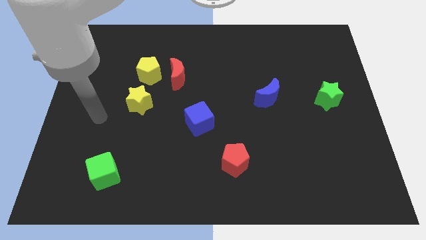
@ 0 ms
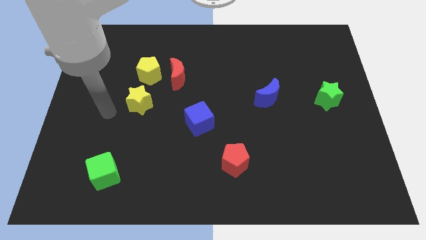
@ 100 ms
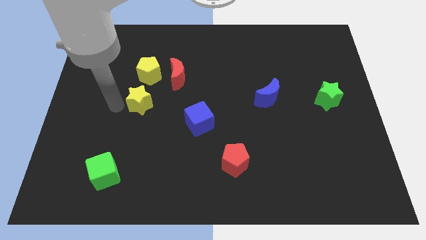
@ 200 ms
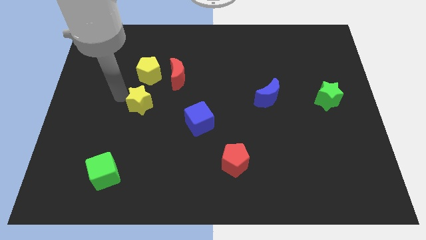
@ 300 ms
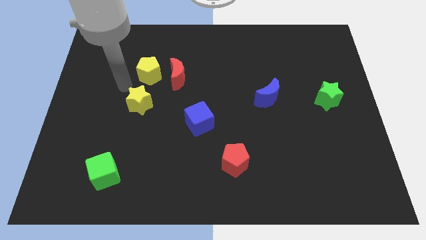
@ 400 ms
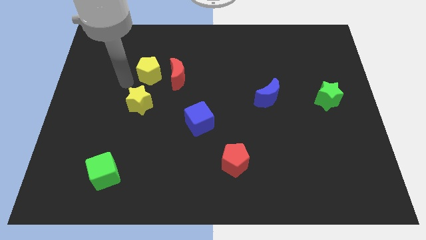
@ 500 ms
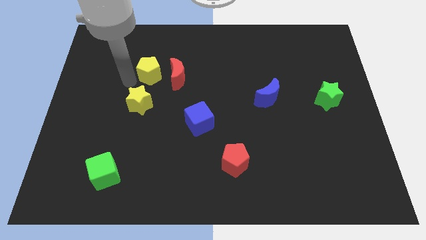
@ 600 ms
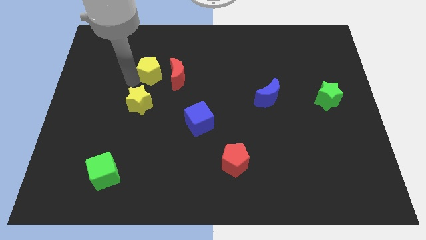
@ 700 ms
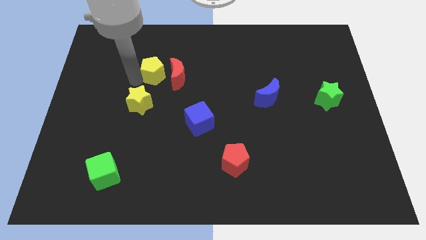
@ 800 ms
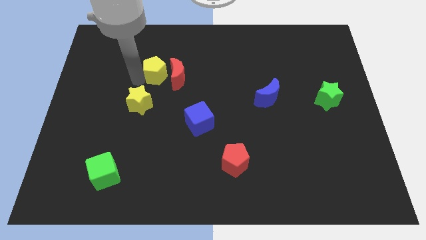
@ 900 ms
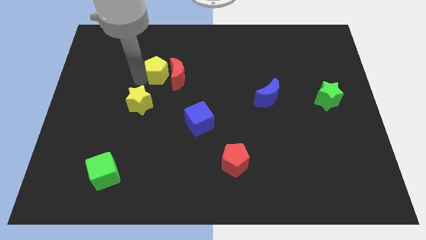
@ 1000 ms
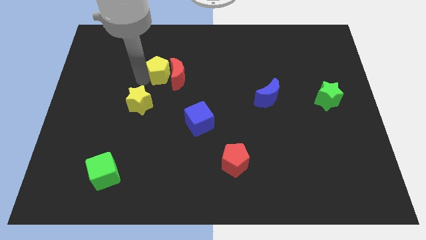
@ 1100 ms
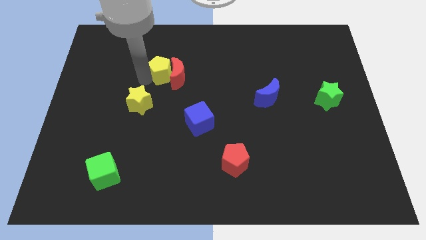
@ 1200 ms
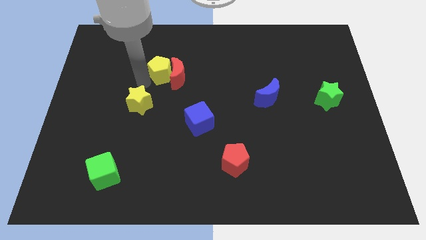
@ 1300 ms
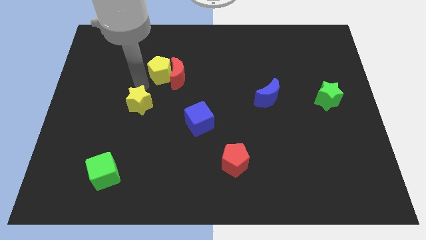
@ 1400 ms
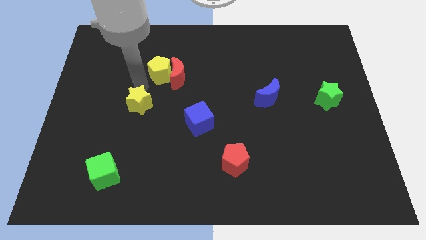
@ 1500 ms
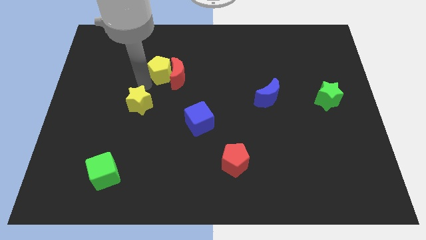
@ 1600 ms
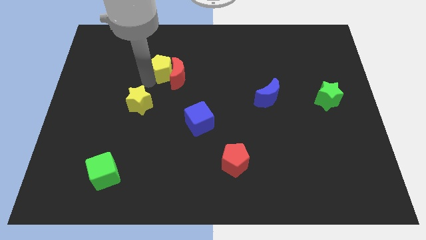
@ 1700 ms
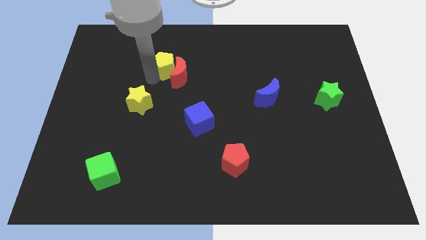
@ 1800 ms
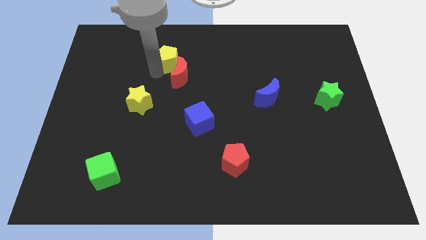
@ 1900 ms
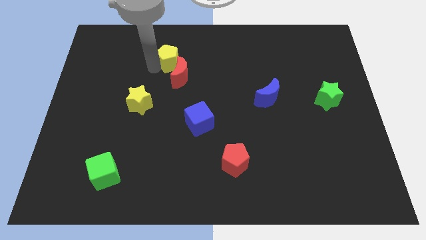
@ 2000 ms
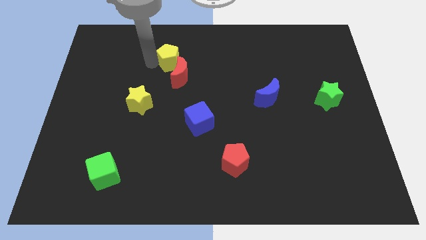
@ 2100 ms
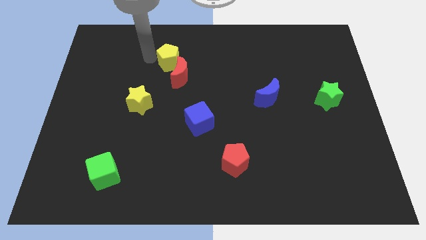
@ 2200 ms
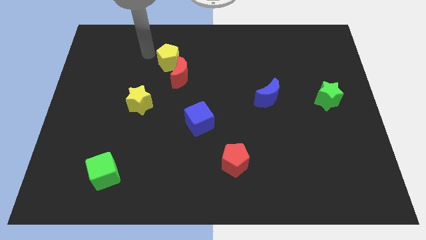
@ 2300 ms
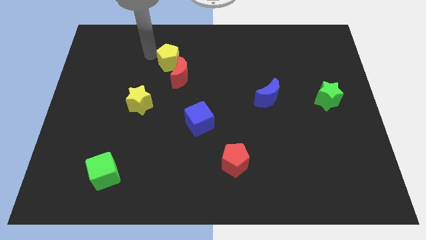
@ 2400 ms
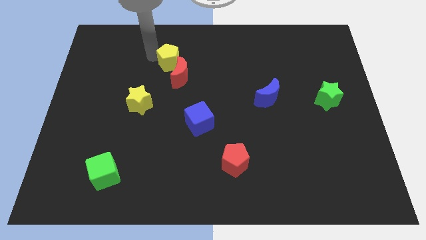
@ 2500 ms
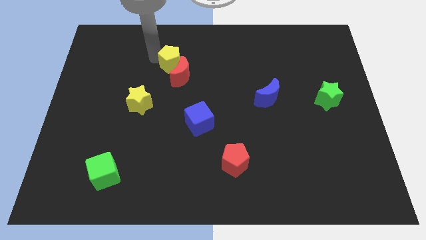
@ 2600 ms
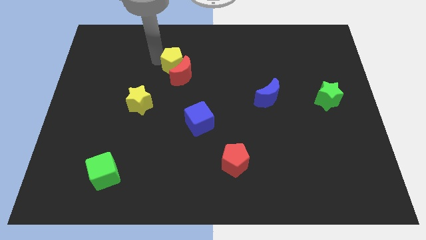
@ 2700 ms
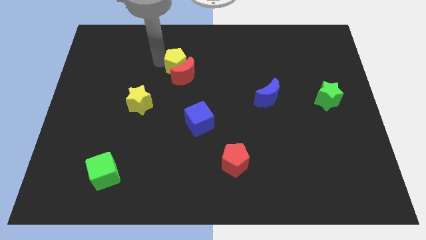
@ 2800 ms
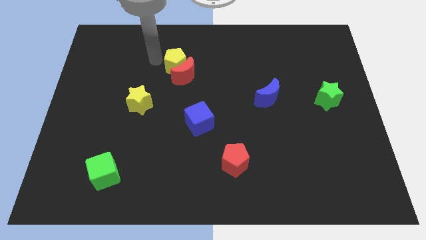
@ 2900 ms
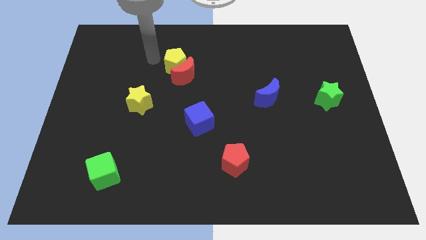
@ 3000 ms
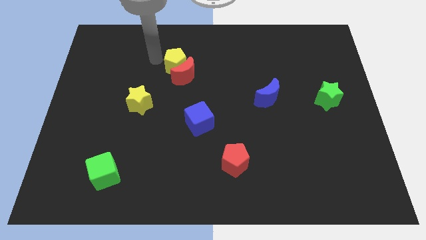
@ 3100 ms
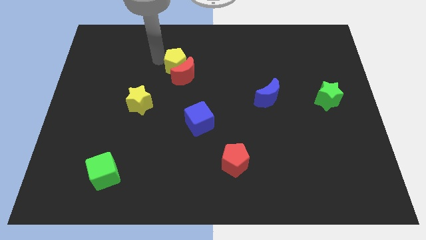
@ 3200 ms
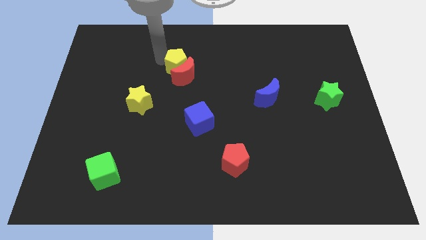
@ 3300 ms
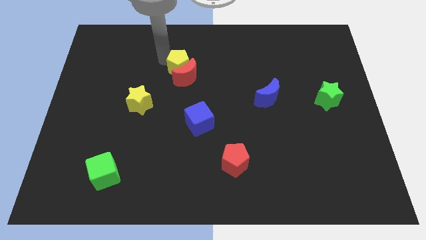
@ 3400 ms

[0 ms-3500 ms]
push the yellow pentagon a little to the right

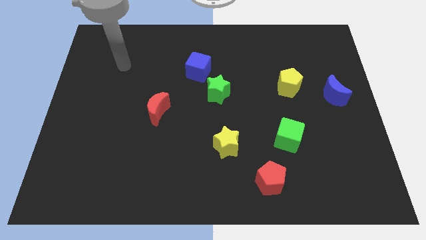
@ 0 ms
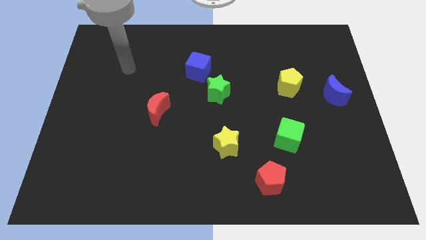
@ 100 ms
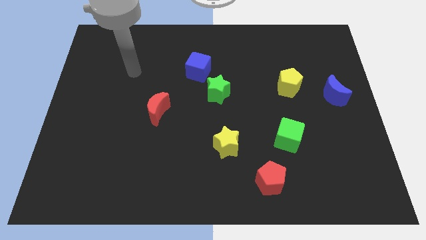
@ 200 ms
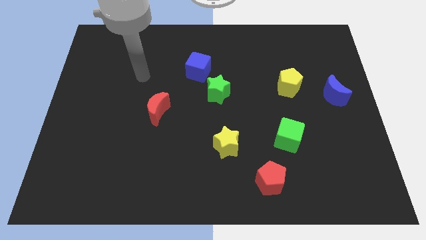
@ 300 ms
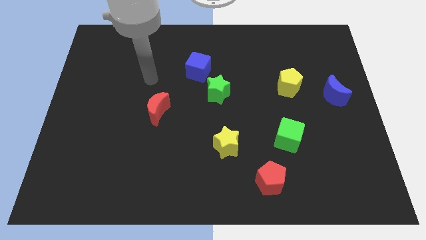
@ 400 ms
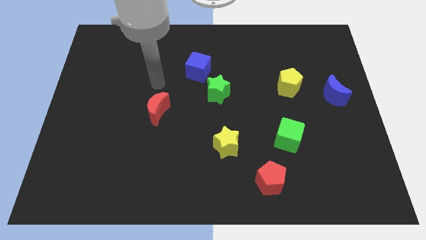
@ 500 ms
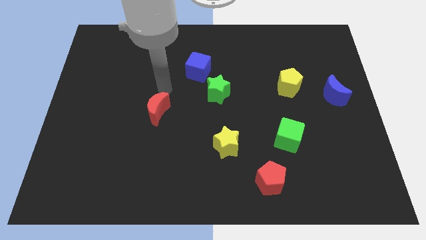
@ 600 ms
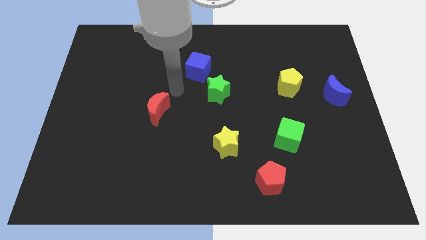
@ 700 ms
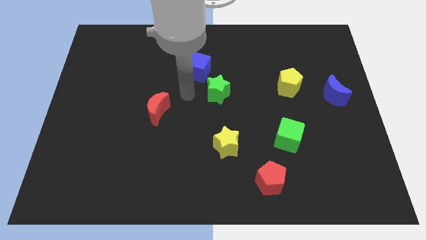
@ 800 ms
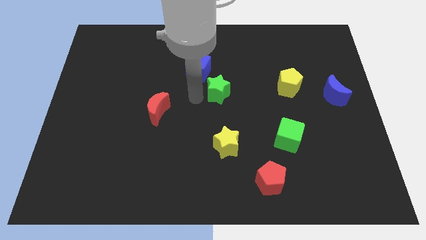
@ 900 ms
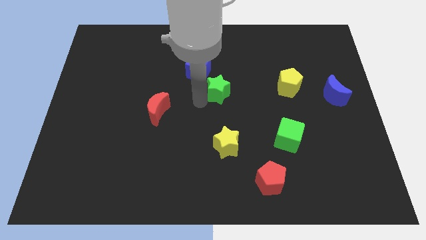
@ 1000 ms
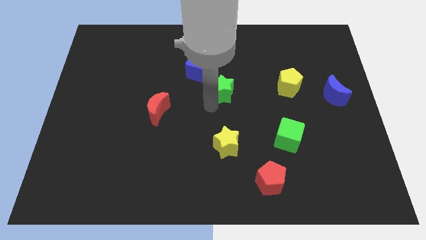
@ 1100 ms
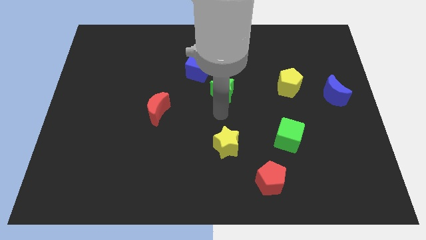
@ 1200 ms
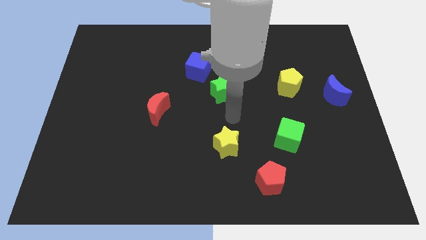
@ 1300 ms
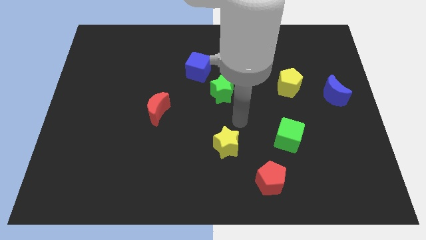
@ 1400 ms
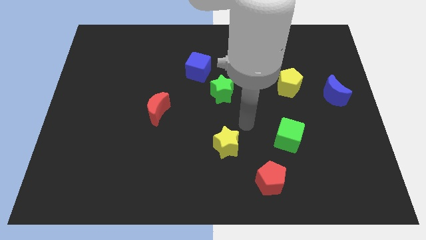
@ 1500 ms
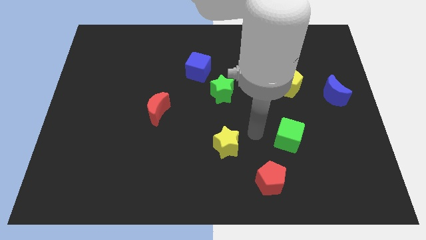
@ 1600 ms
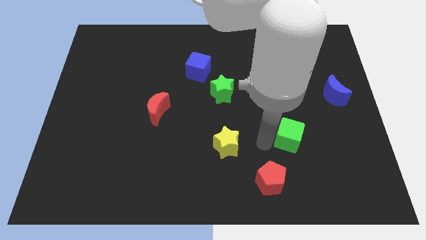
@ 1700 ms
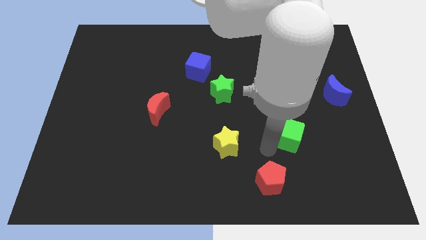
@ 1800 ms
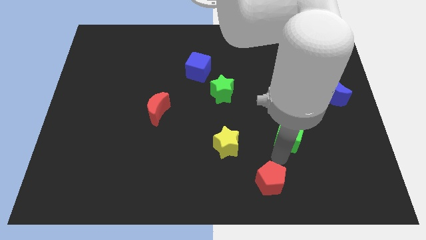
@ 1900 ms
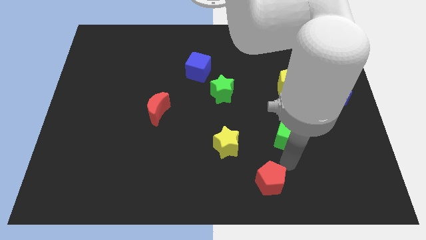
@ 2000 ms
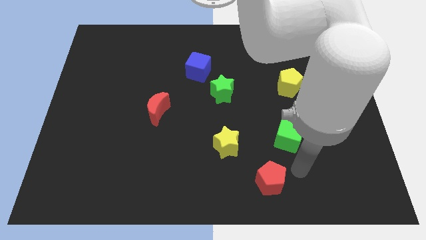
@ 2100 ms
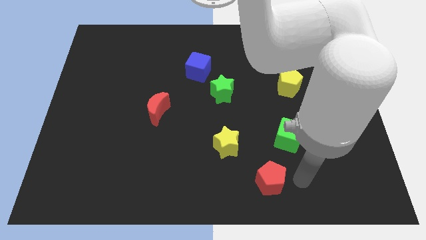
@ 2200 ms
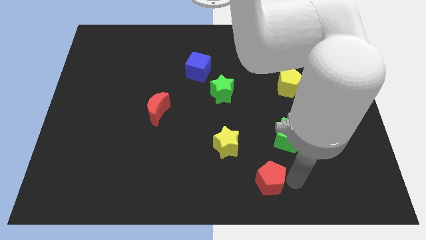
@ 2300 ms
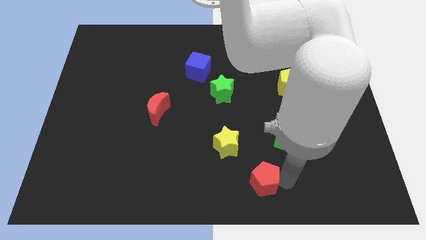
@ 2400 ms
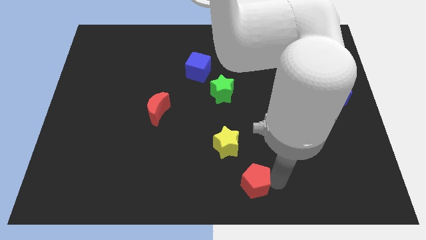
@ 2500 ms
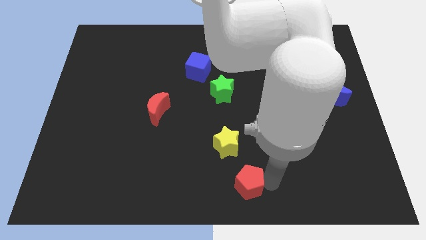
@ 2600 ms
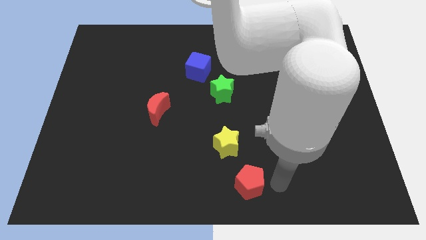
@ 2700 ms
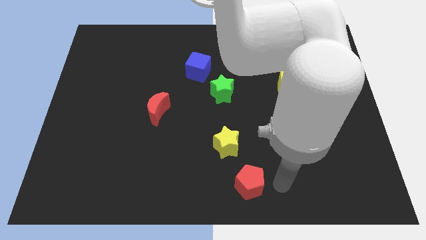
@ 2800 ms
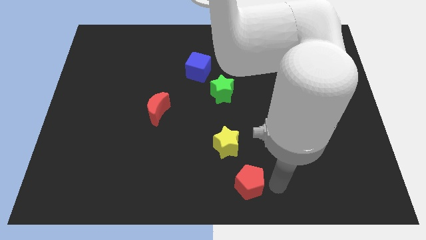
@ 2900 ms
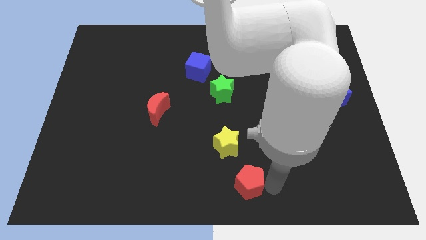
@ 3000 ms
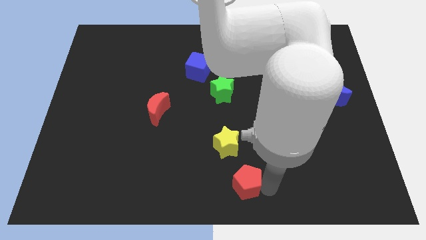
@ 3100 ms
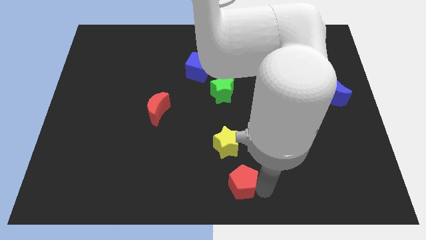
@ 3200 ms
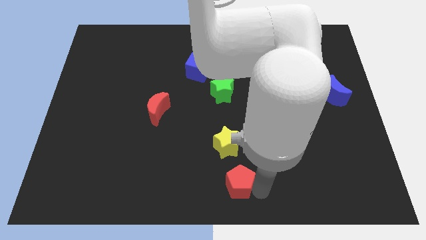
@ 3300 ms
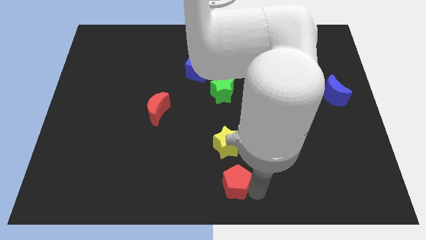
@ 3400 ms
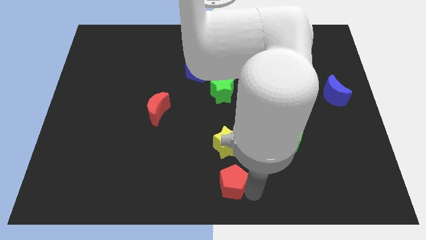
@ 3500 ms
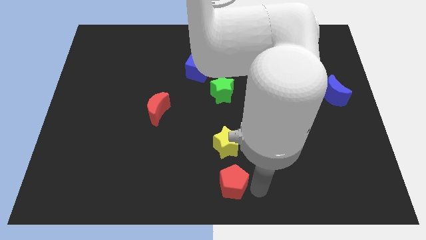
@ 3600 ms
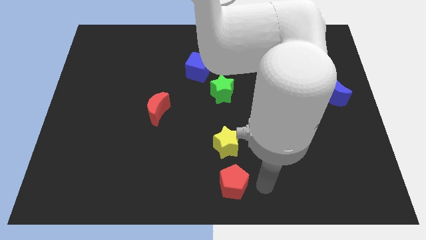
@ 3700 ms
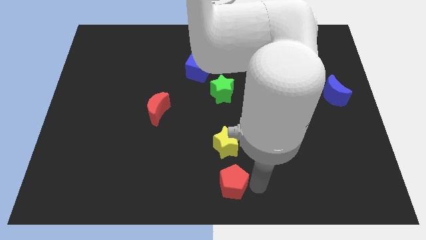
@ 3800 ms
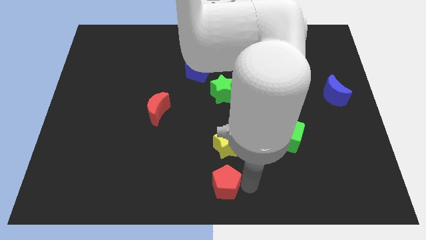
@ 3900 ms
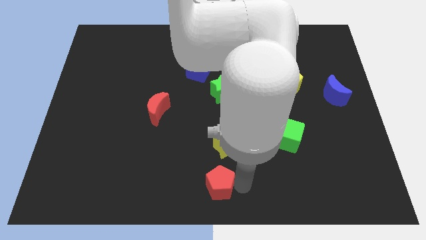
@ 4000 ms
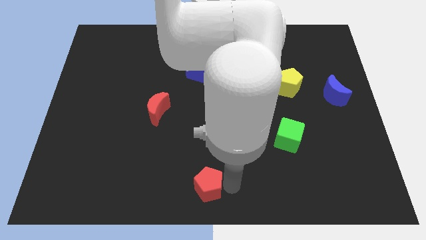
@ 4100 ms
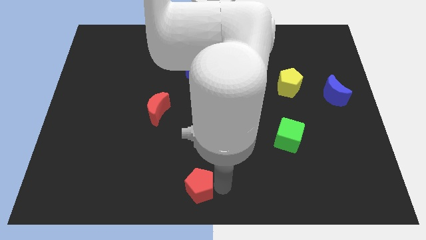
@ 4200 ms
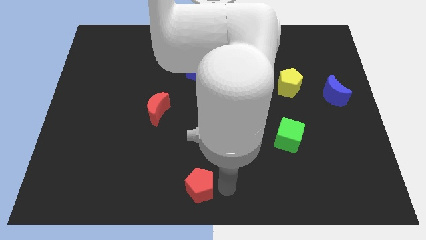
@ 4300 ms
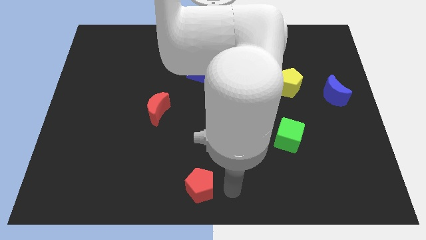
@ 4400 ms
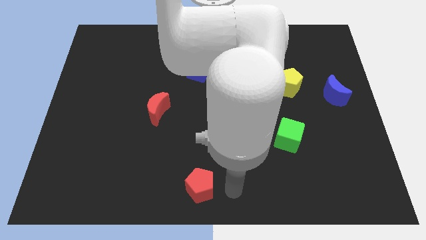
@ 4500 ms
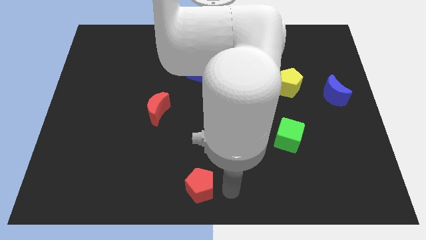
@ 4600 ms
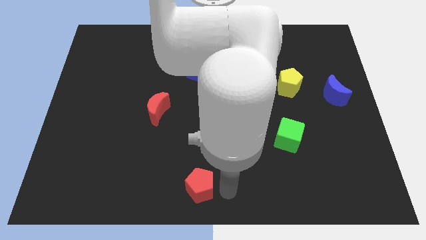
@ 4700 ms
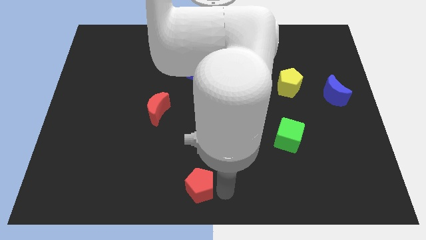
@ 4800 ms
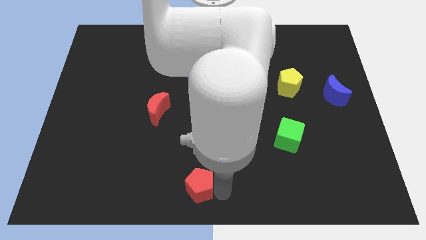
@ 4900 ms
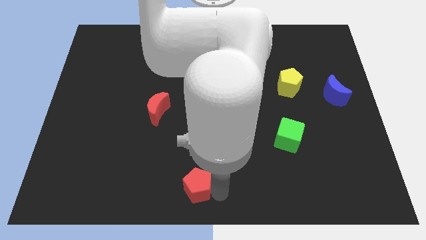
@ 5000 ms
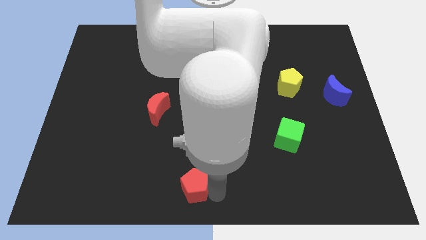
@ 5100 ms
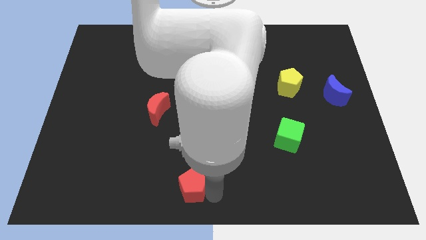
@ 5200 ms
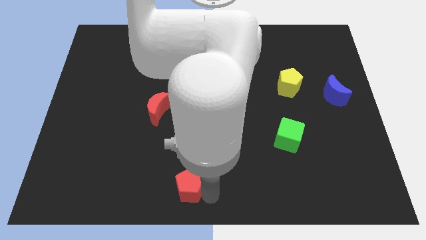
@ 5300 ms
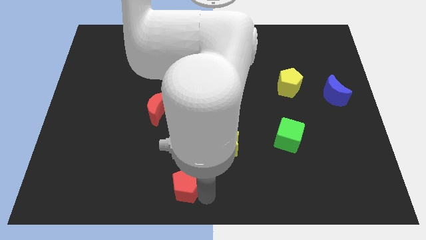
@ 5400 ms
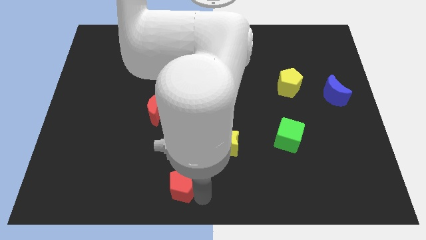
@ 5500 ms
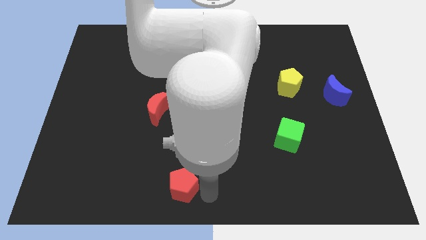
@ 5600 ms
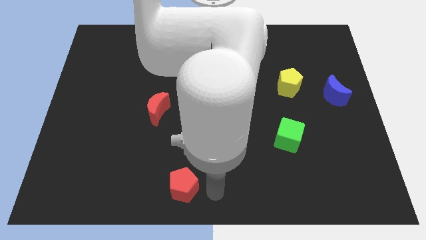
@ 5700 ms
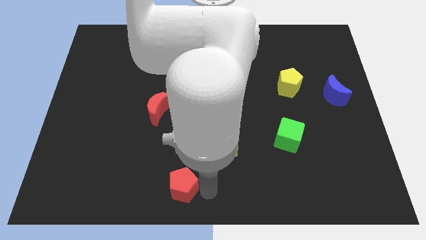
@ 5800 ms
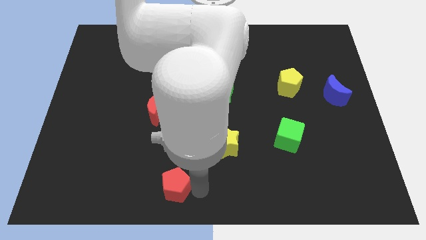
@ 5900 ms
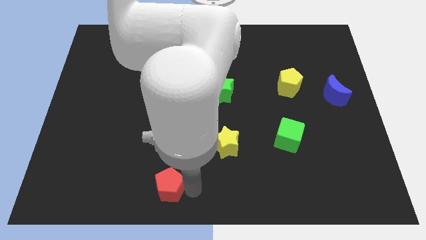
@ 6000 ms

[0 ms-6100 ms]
push the red pentagon to the left
